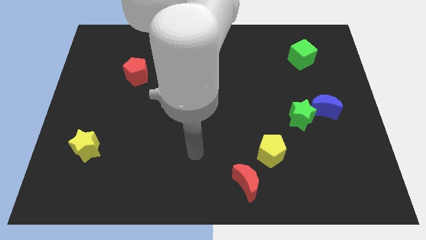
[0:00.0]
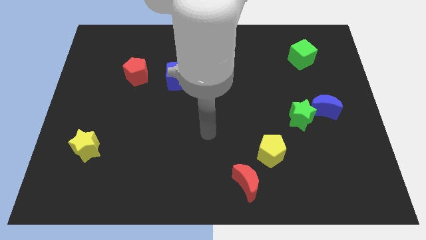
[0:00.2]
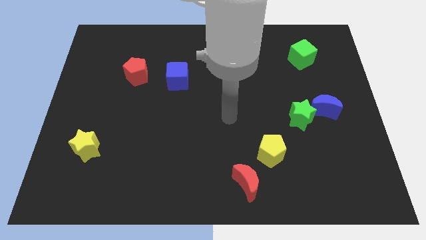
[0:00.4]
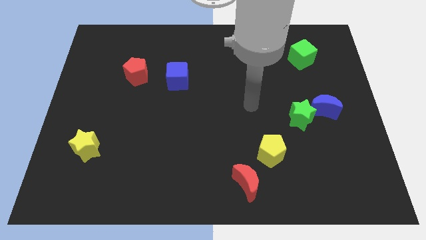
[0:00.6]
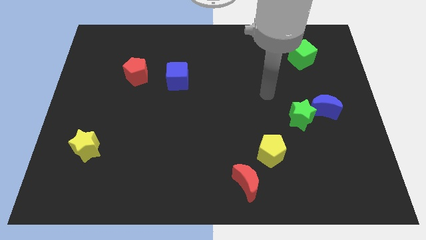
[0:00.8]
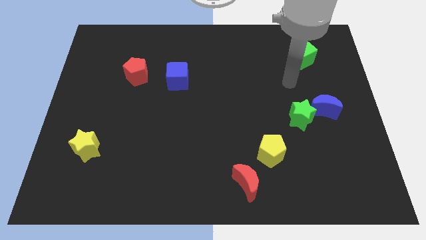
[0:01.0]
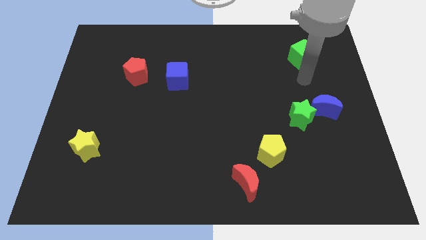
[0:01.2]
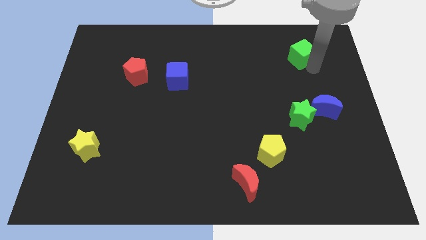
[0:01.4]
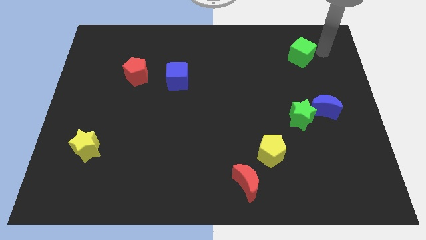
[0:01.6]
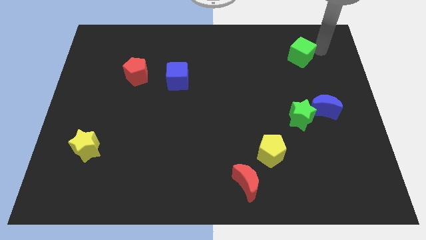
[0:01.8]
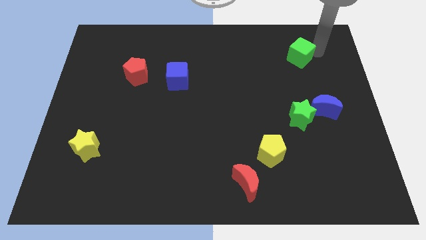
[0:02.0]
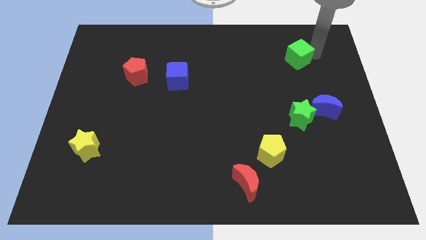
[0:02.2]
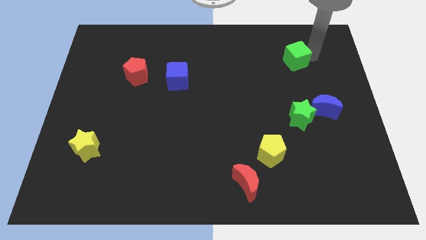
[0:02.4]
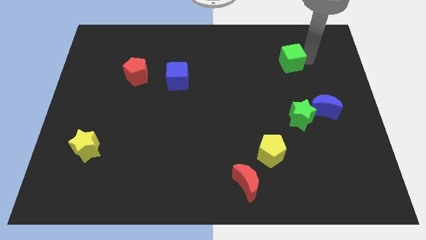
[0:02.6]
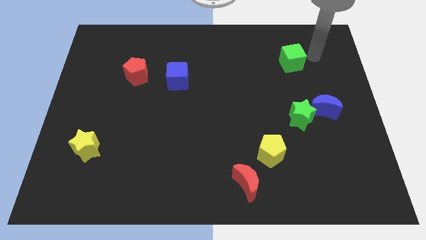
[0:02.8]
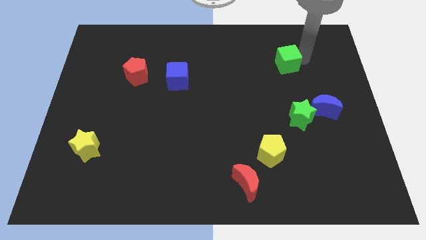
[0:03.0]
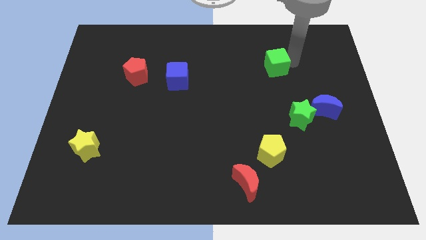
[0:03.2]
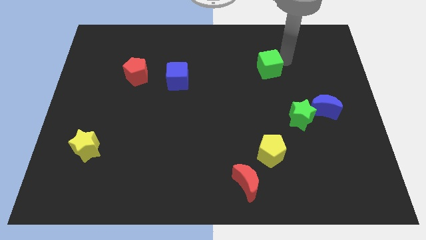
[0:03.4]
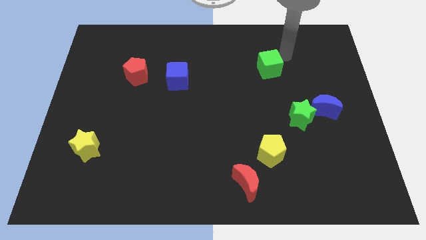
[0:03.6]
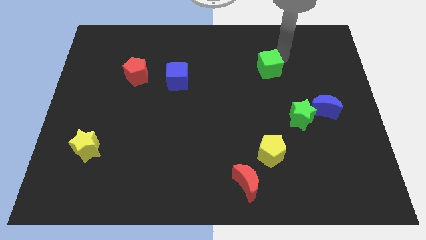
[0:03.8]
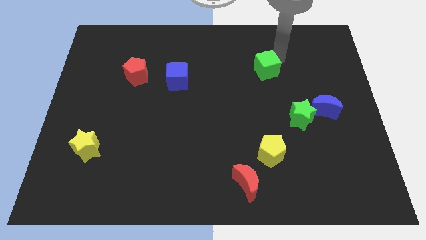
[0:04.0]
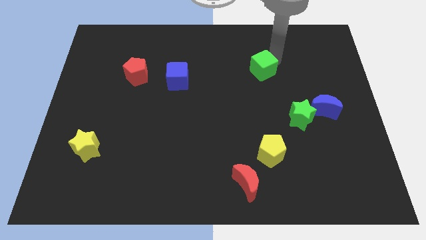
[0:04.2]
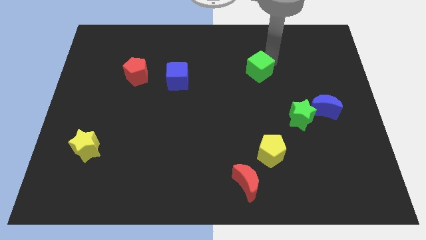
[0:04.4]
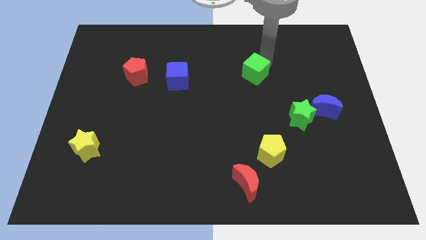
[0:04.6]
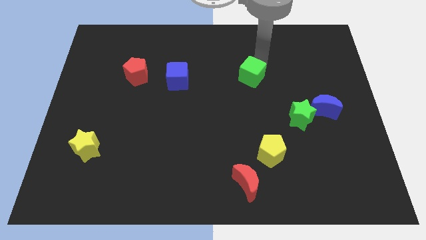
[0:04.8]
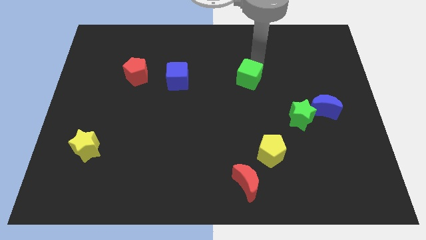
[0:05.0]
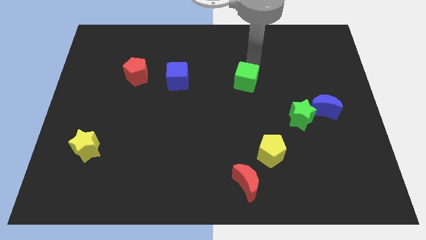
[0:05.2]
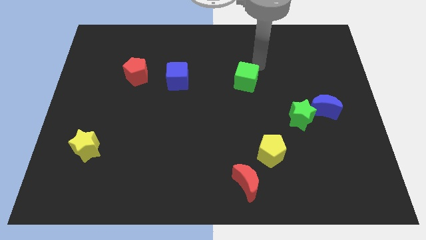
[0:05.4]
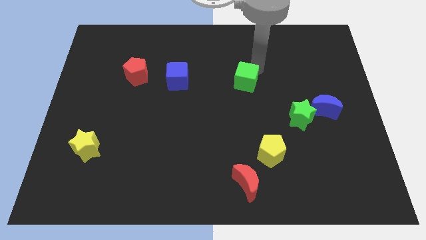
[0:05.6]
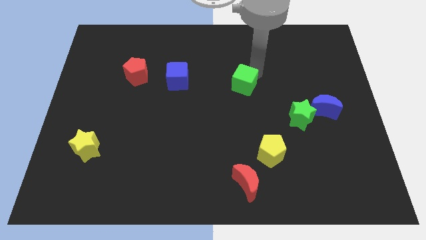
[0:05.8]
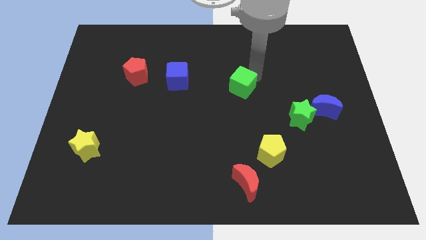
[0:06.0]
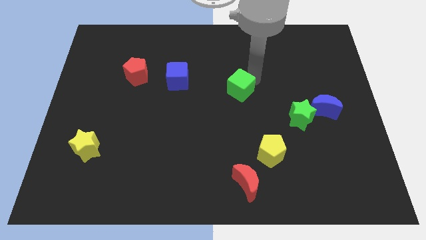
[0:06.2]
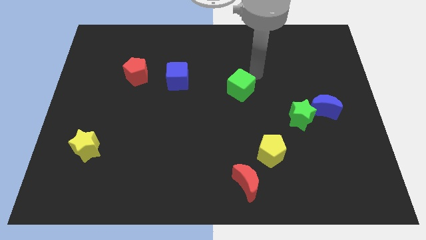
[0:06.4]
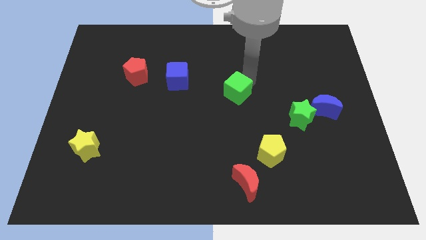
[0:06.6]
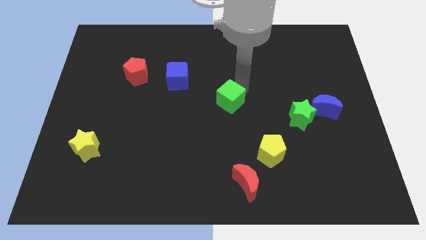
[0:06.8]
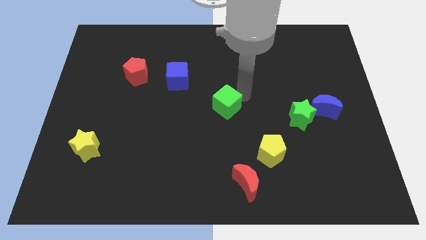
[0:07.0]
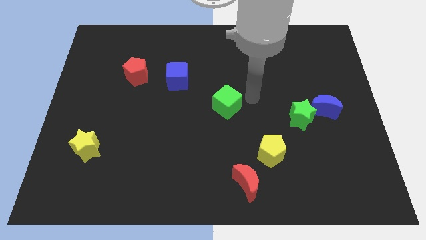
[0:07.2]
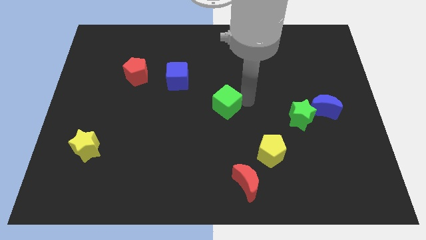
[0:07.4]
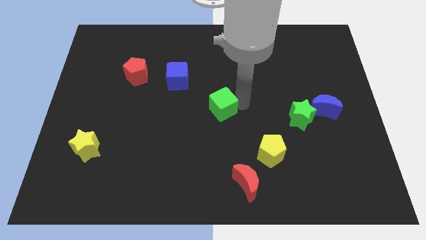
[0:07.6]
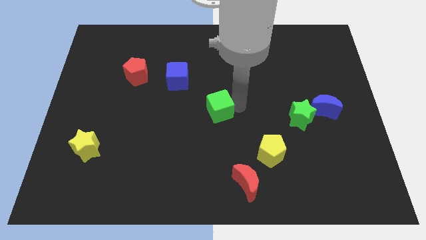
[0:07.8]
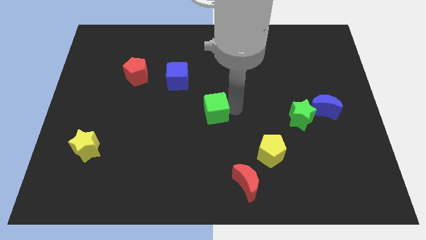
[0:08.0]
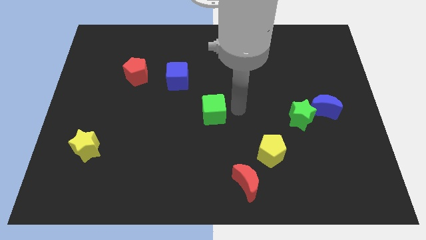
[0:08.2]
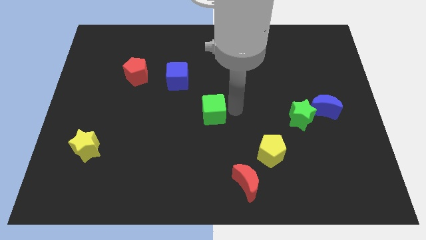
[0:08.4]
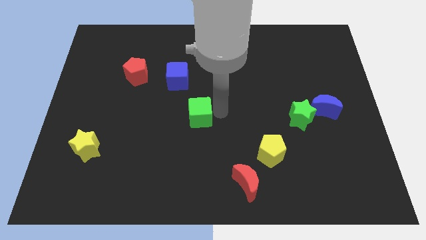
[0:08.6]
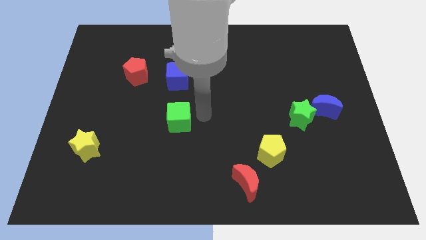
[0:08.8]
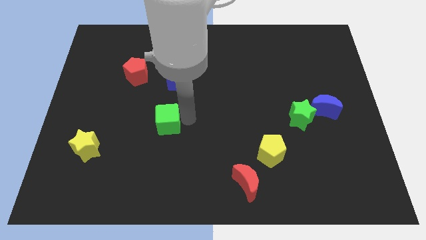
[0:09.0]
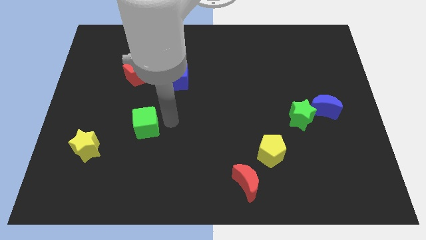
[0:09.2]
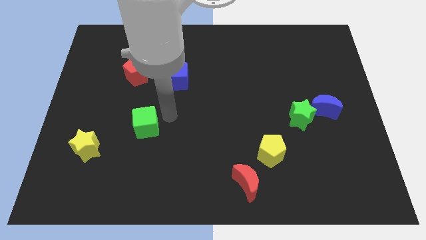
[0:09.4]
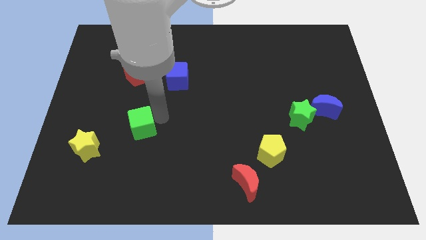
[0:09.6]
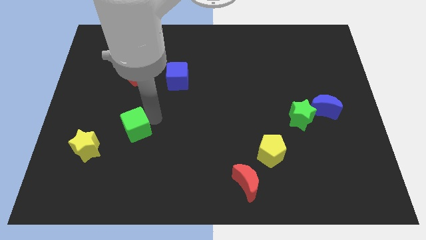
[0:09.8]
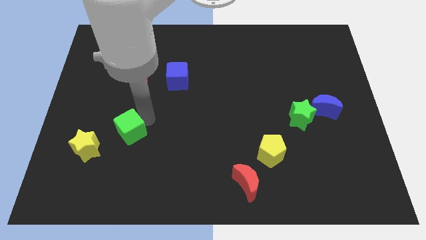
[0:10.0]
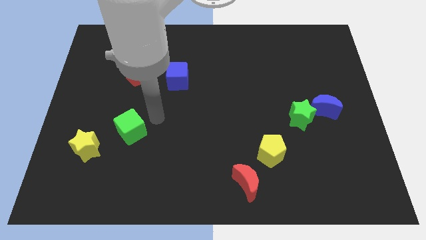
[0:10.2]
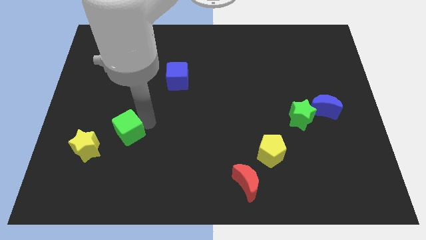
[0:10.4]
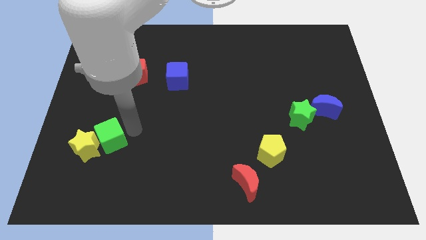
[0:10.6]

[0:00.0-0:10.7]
put the green cube towards the yellow star

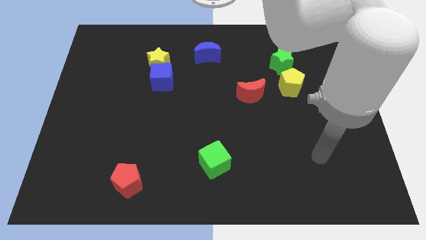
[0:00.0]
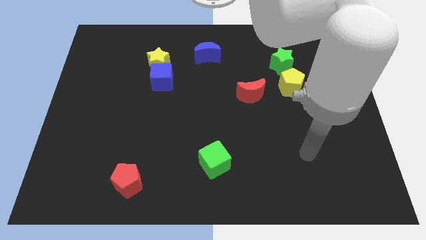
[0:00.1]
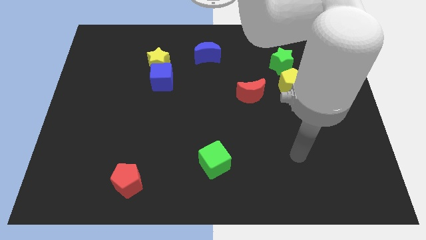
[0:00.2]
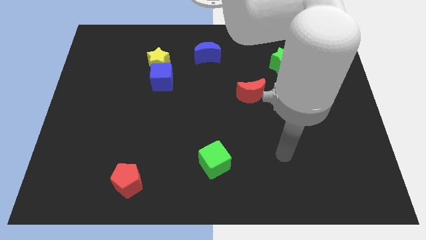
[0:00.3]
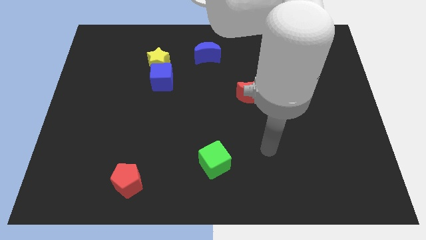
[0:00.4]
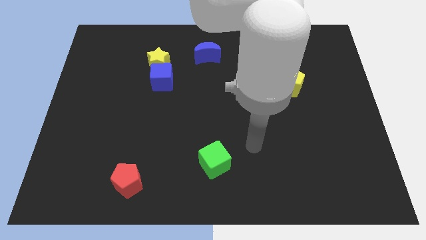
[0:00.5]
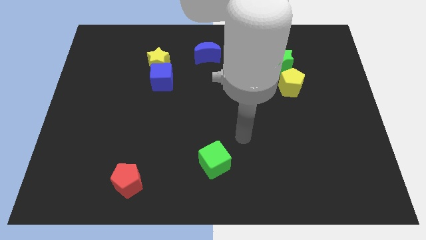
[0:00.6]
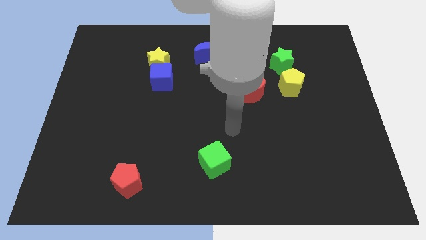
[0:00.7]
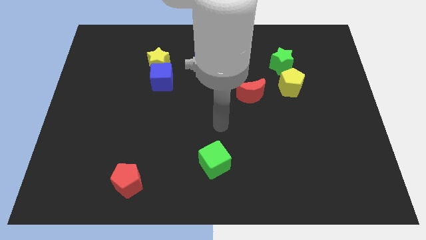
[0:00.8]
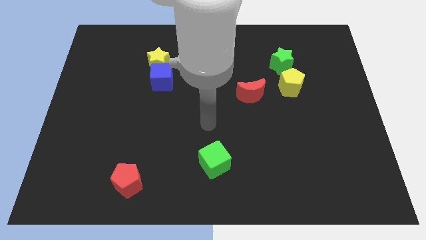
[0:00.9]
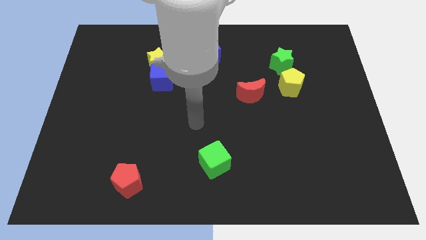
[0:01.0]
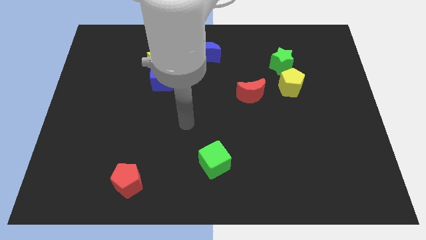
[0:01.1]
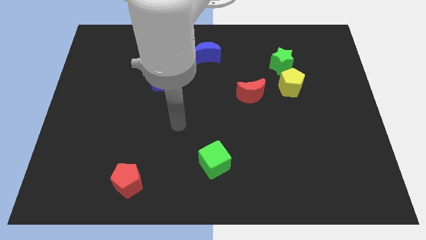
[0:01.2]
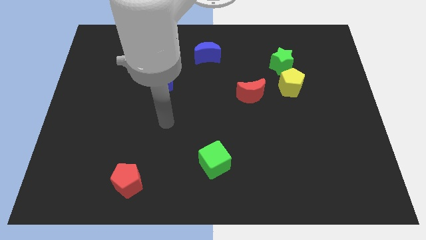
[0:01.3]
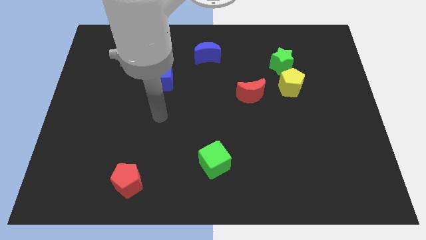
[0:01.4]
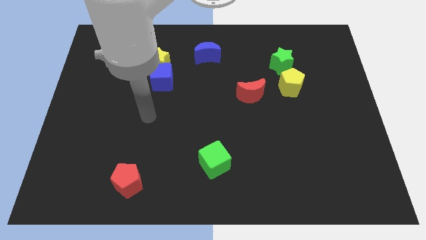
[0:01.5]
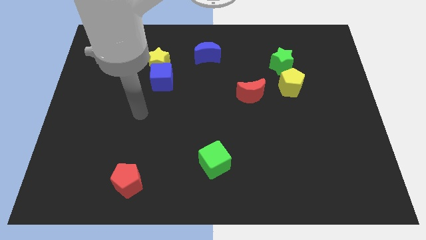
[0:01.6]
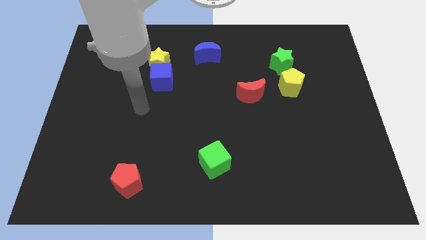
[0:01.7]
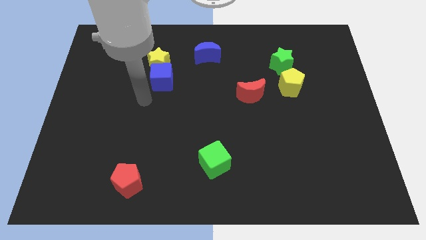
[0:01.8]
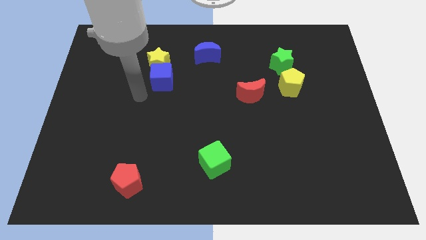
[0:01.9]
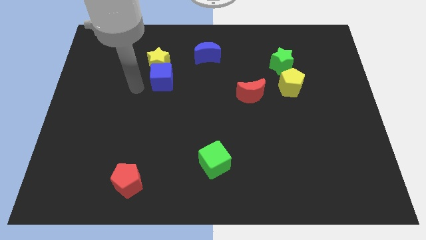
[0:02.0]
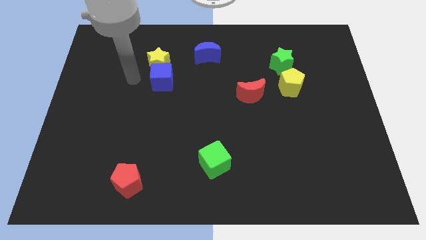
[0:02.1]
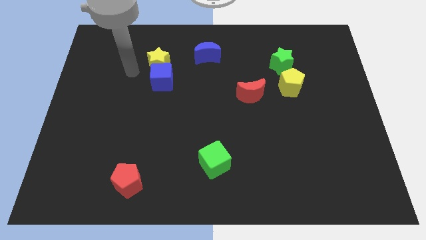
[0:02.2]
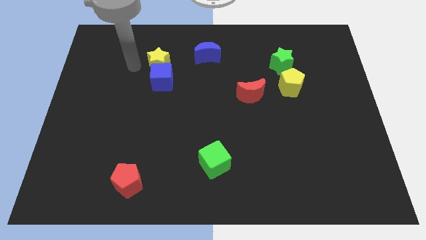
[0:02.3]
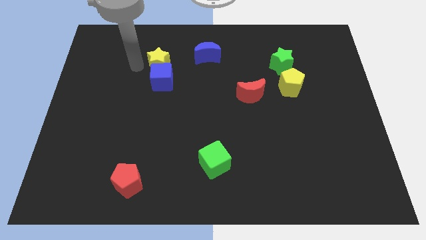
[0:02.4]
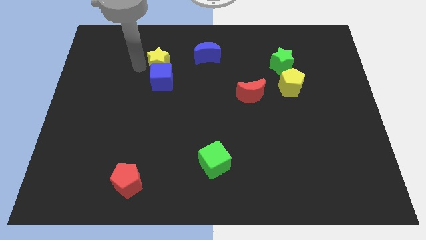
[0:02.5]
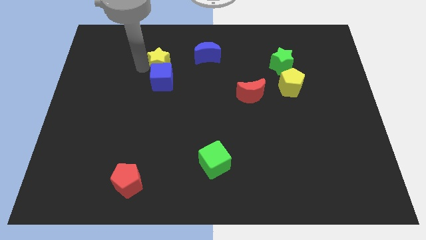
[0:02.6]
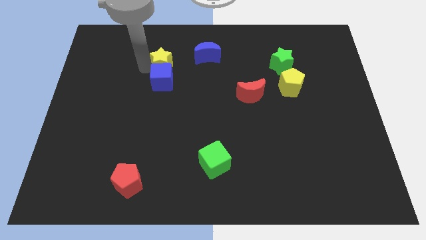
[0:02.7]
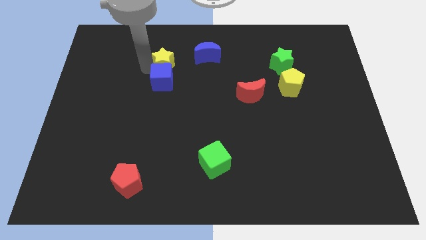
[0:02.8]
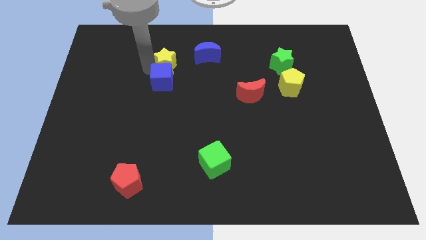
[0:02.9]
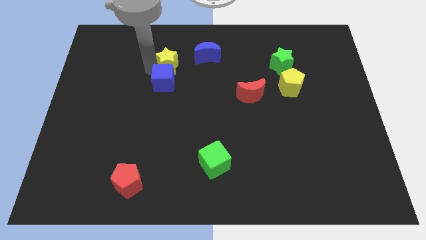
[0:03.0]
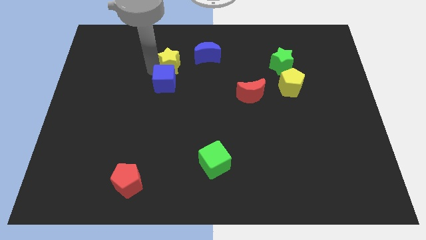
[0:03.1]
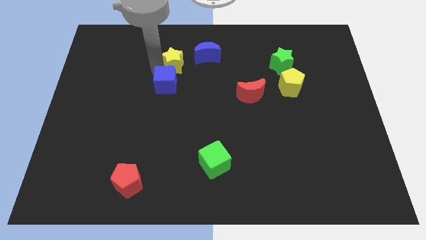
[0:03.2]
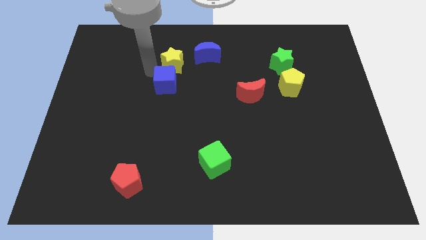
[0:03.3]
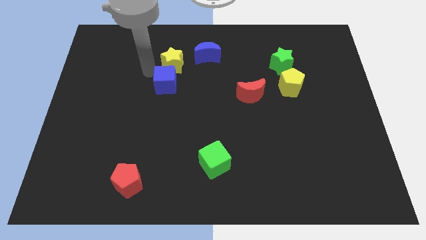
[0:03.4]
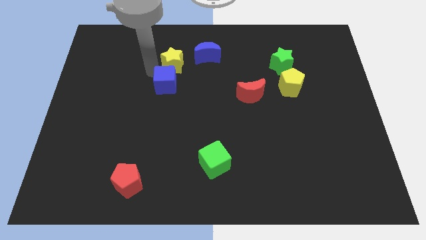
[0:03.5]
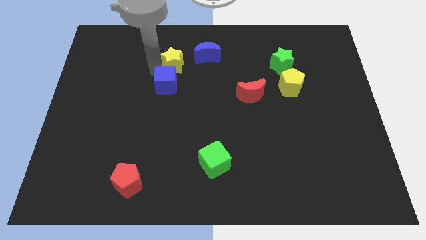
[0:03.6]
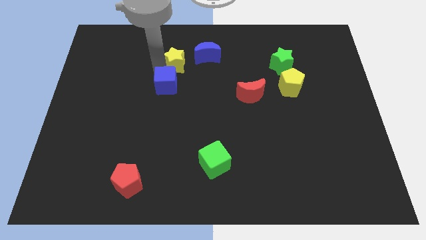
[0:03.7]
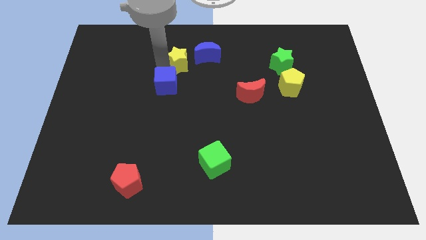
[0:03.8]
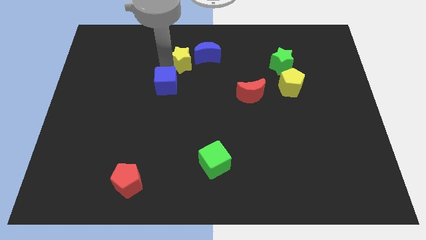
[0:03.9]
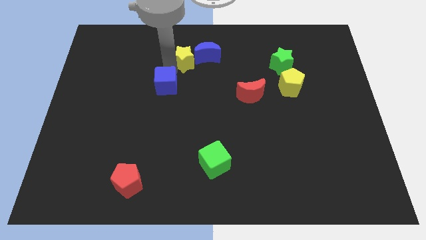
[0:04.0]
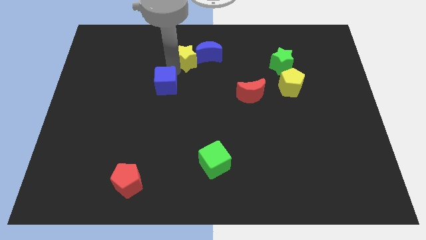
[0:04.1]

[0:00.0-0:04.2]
move the yellow star towards the blue moon
